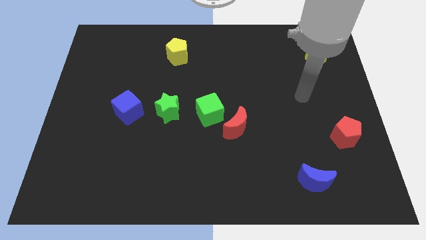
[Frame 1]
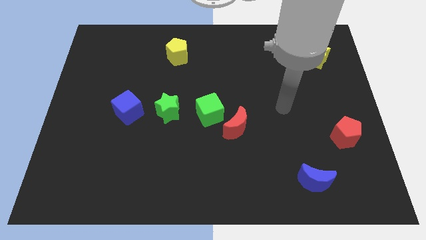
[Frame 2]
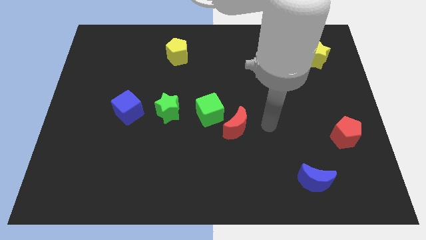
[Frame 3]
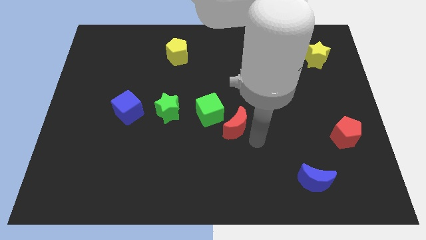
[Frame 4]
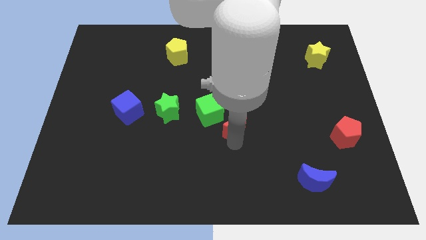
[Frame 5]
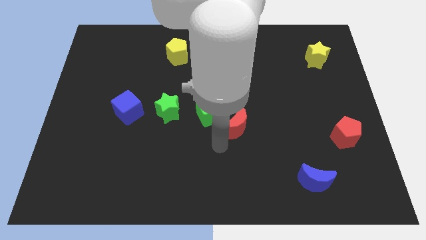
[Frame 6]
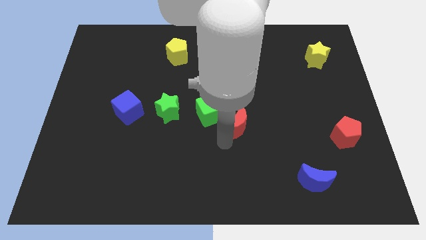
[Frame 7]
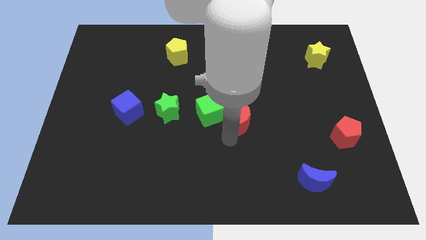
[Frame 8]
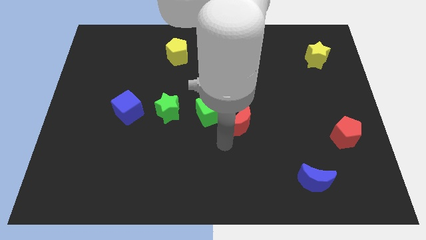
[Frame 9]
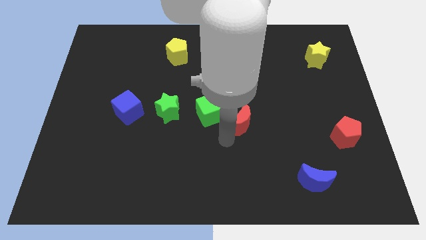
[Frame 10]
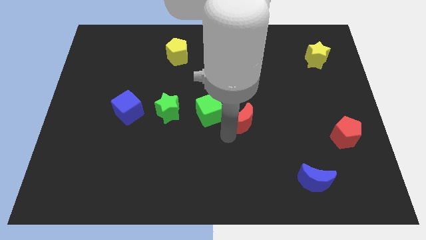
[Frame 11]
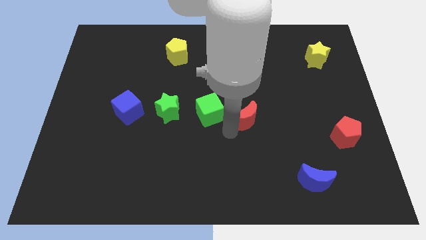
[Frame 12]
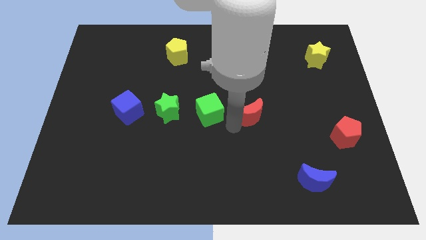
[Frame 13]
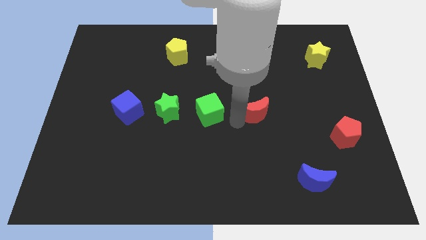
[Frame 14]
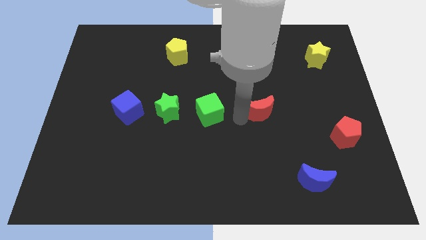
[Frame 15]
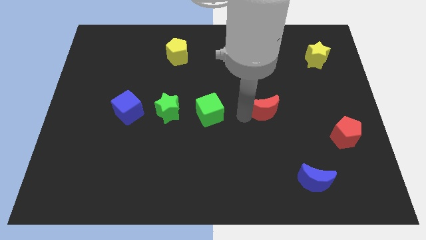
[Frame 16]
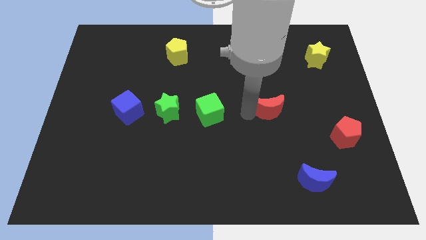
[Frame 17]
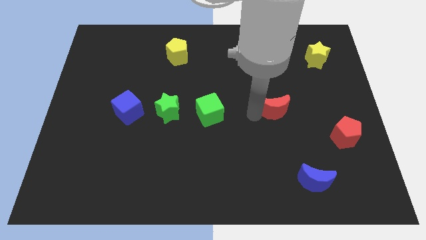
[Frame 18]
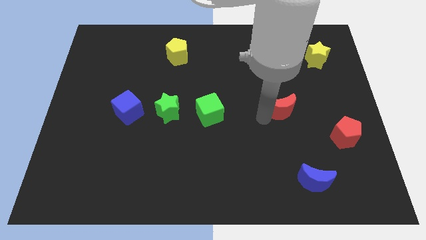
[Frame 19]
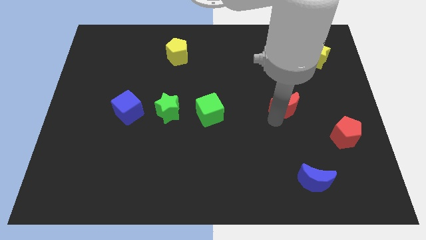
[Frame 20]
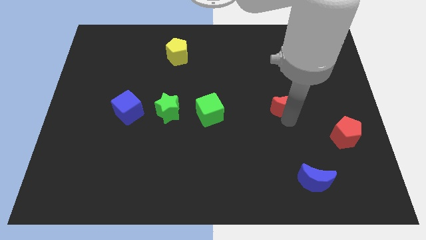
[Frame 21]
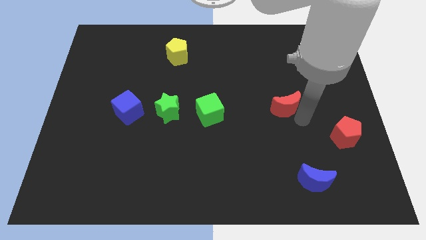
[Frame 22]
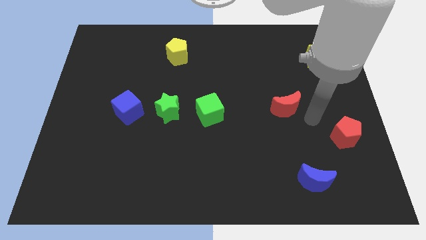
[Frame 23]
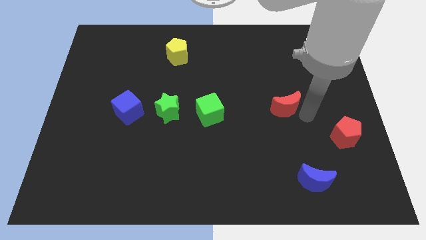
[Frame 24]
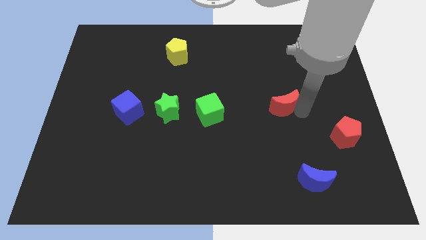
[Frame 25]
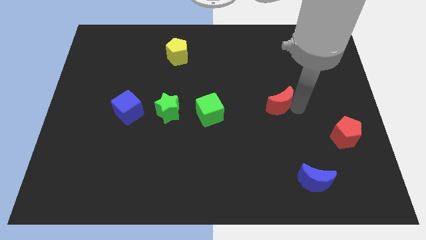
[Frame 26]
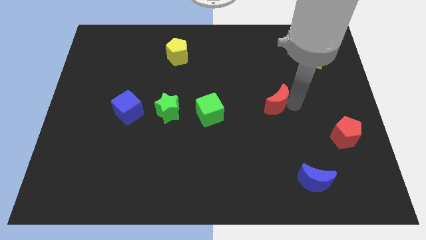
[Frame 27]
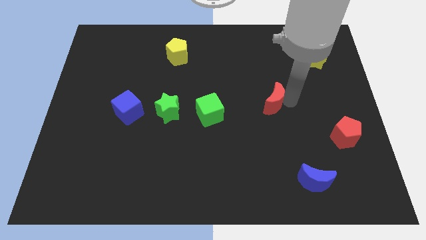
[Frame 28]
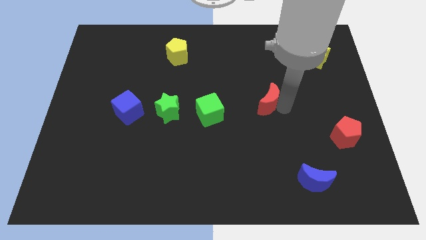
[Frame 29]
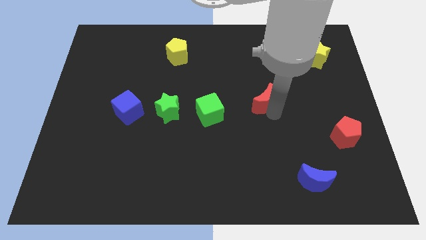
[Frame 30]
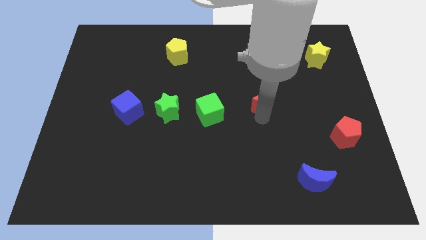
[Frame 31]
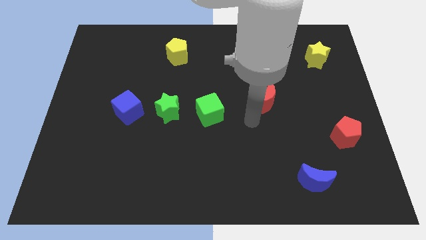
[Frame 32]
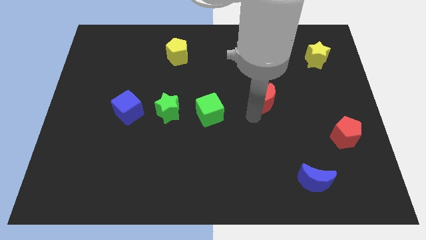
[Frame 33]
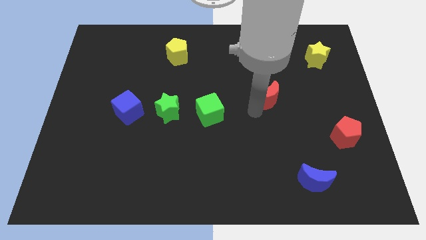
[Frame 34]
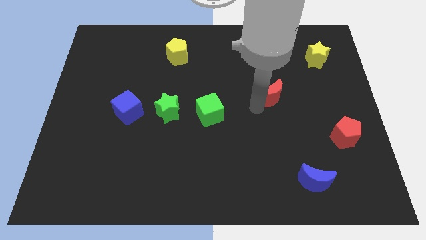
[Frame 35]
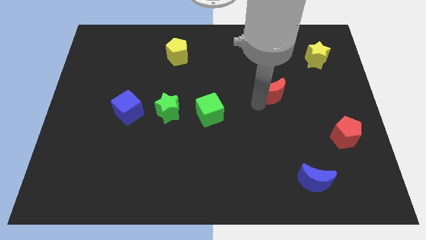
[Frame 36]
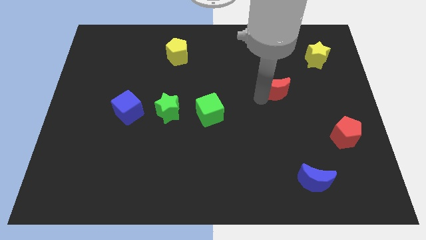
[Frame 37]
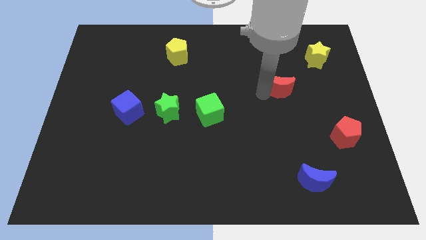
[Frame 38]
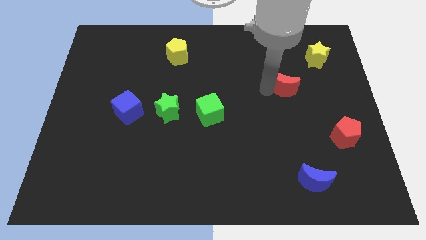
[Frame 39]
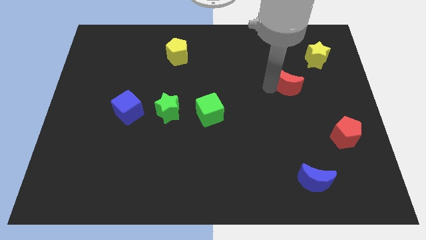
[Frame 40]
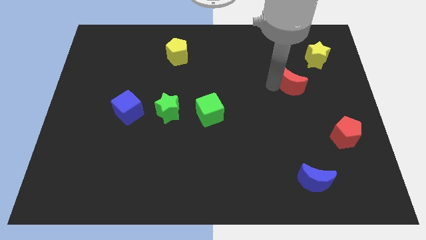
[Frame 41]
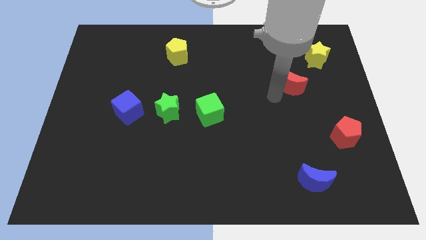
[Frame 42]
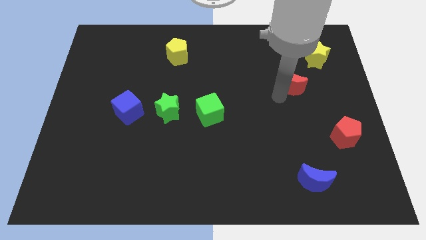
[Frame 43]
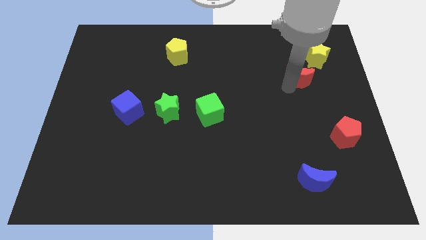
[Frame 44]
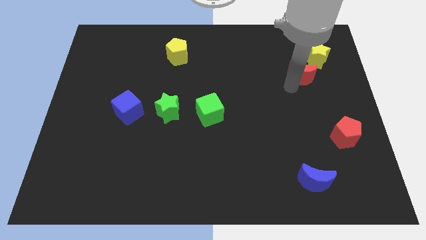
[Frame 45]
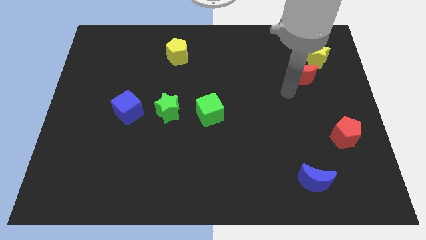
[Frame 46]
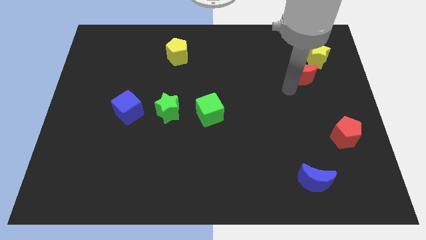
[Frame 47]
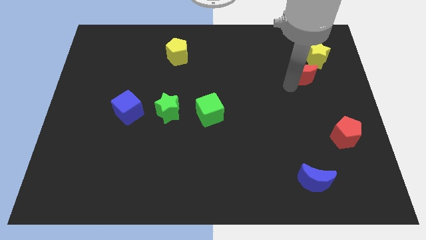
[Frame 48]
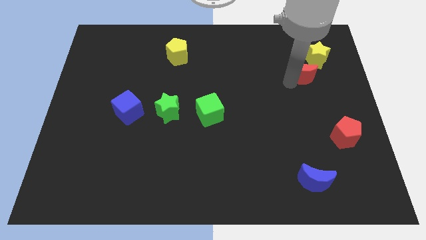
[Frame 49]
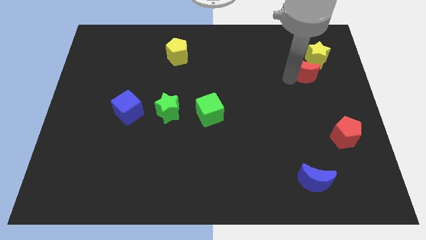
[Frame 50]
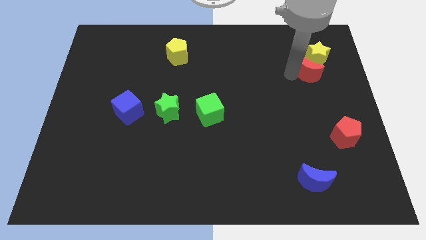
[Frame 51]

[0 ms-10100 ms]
slide the red moon next to the yellow star

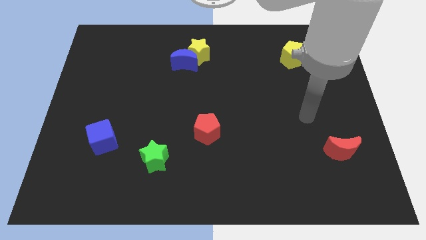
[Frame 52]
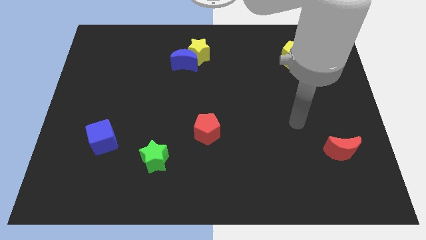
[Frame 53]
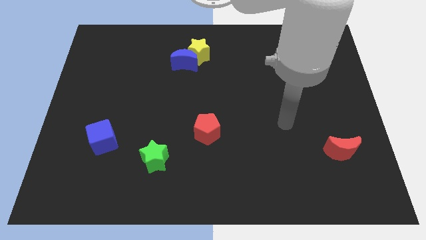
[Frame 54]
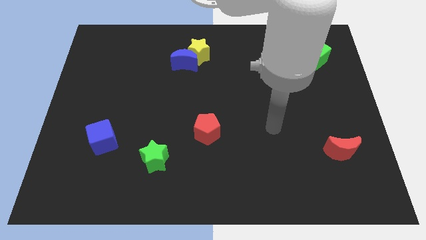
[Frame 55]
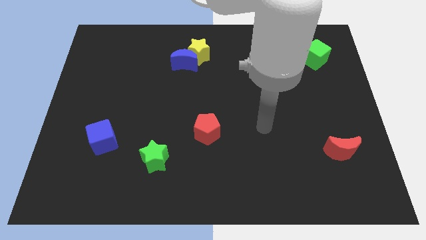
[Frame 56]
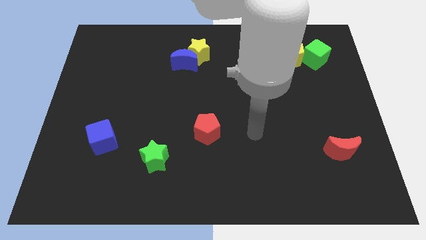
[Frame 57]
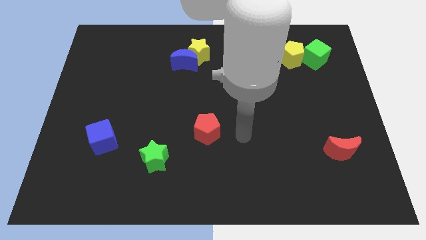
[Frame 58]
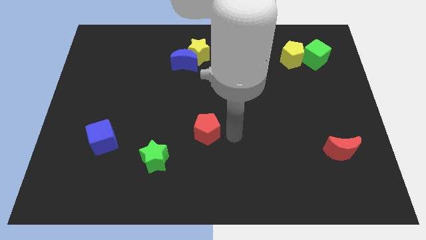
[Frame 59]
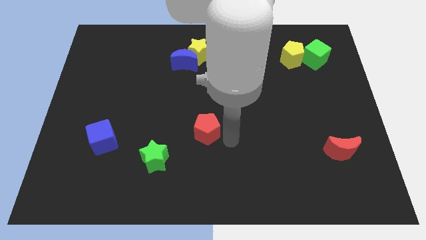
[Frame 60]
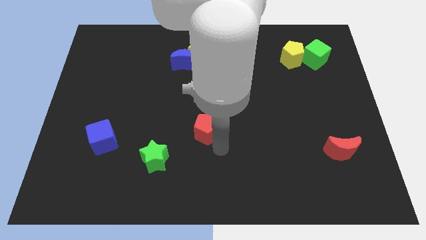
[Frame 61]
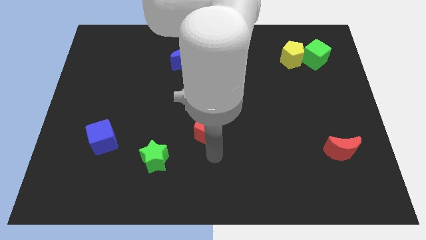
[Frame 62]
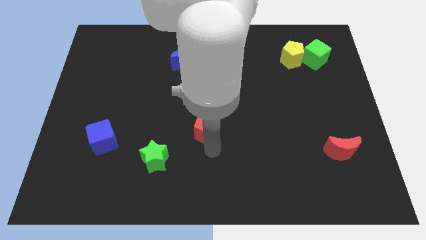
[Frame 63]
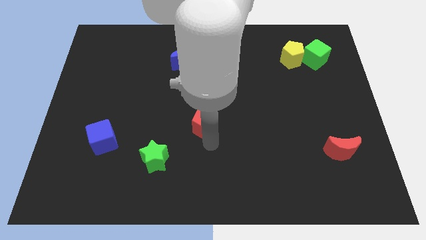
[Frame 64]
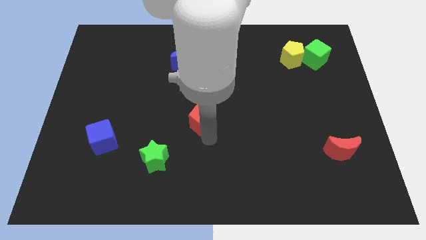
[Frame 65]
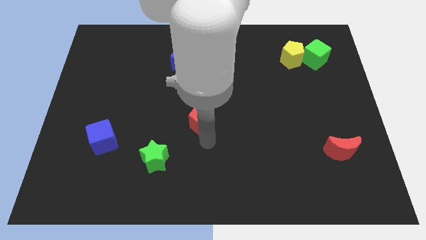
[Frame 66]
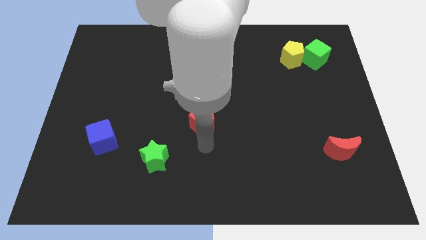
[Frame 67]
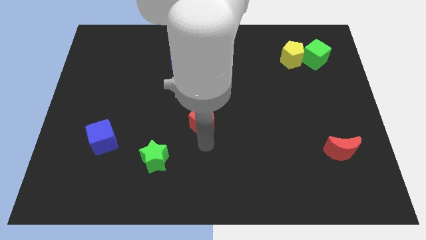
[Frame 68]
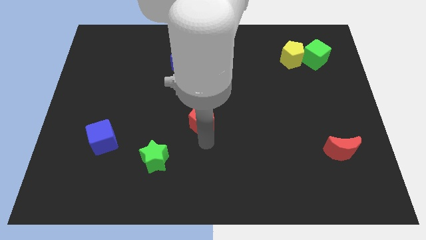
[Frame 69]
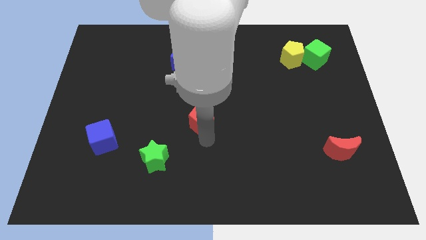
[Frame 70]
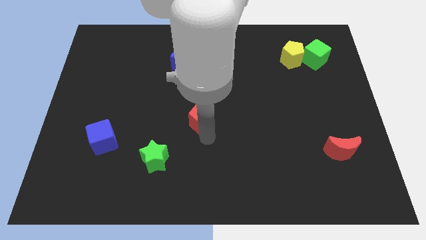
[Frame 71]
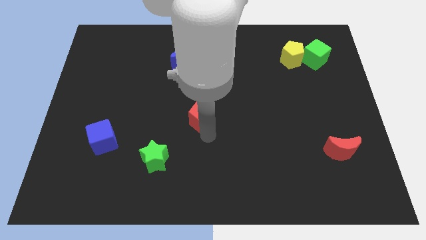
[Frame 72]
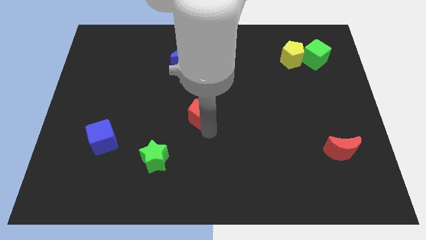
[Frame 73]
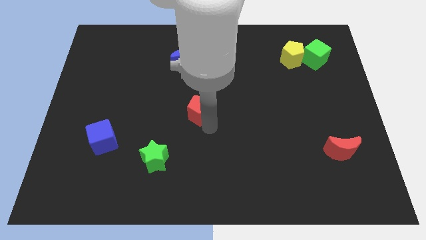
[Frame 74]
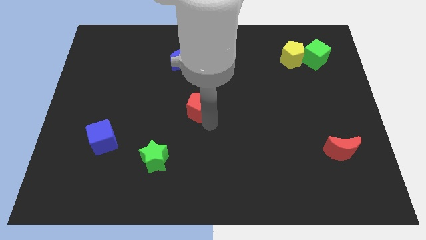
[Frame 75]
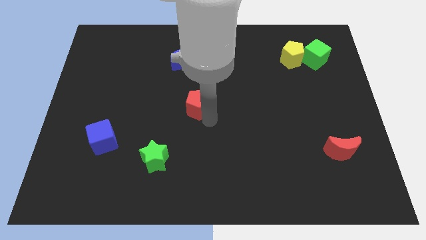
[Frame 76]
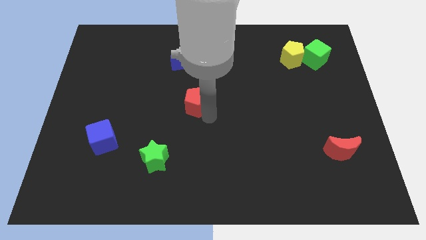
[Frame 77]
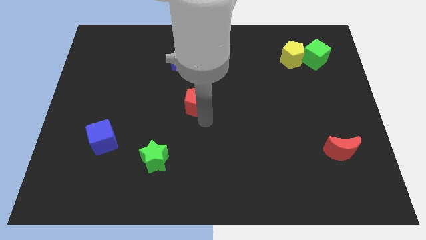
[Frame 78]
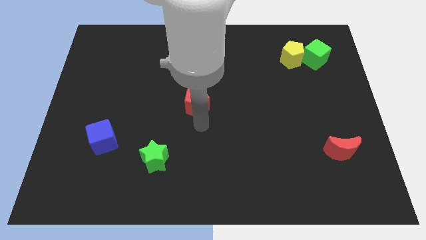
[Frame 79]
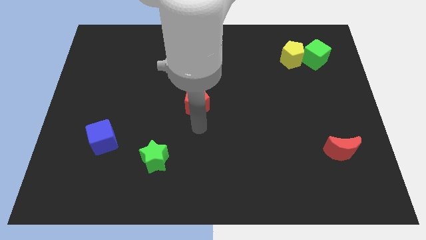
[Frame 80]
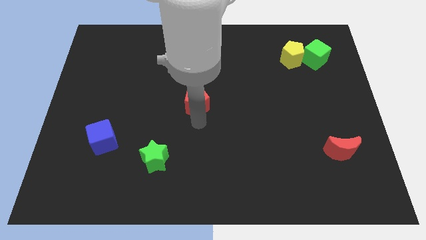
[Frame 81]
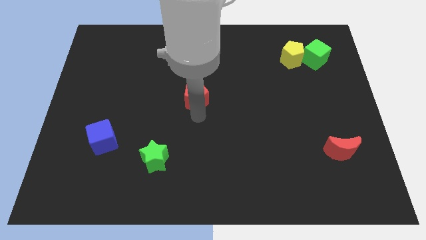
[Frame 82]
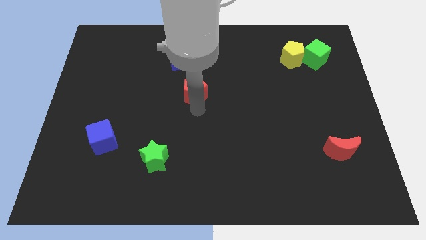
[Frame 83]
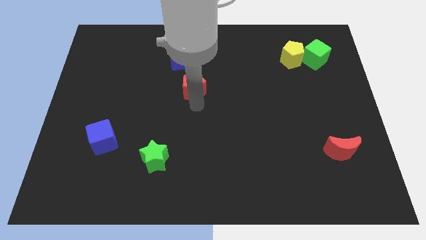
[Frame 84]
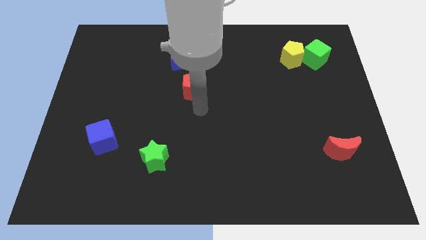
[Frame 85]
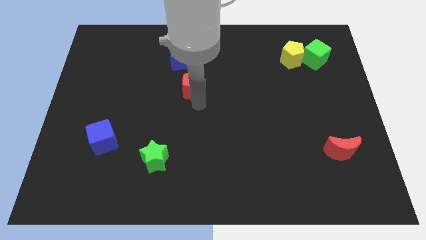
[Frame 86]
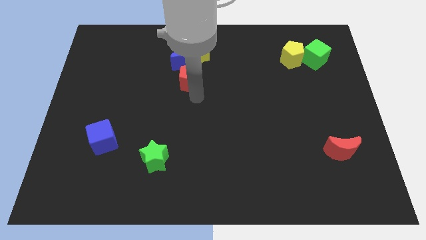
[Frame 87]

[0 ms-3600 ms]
push the red pentagon close to the blue moon
